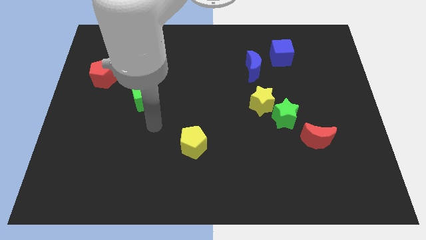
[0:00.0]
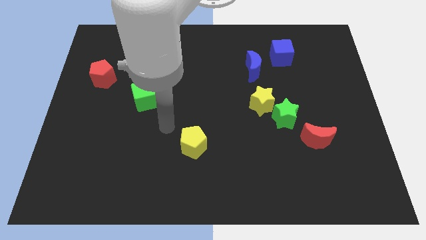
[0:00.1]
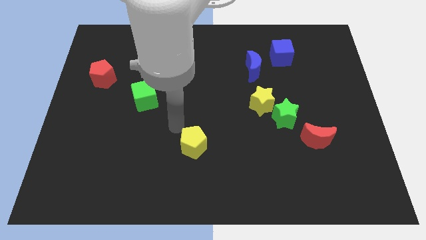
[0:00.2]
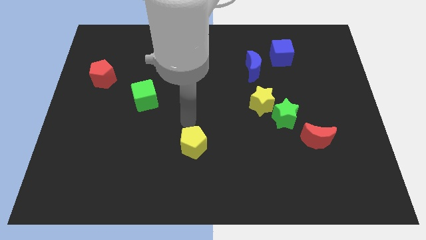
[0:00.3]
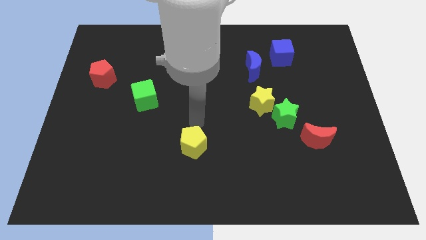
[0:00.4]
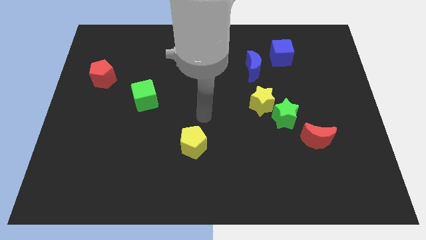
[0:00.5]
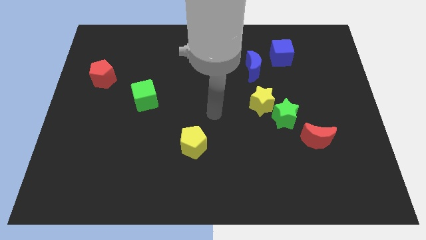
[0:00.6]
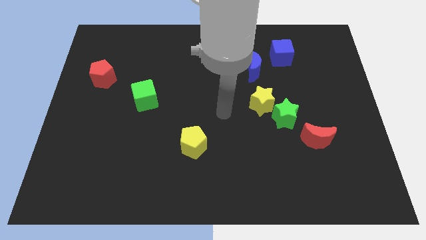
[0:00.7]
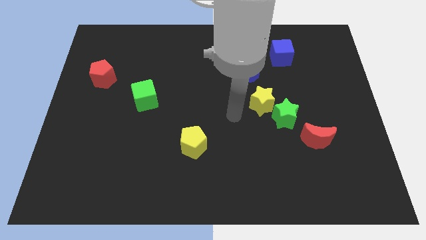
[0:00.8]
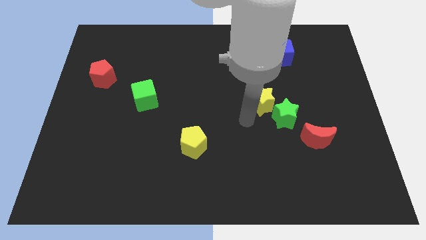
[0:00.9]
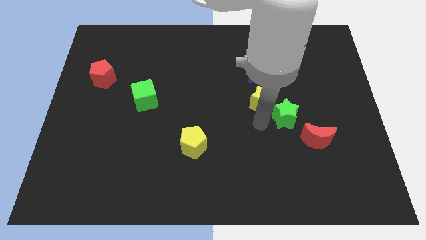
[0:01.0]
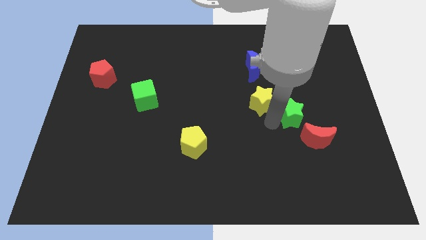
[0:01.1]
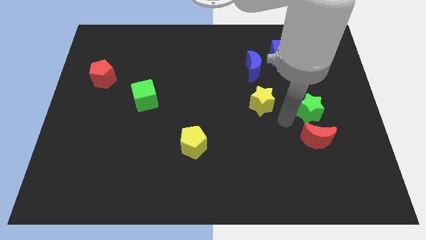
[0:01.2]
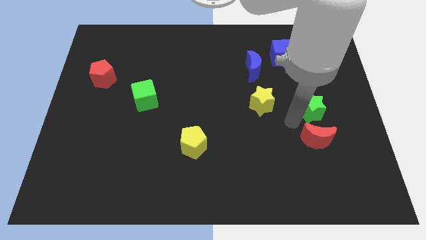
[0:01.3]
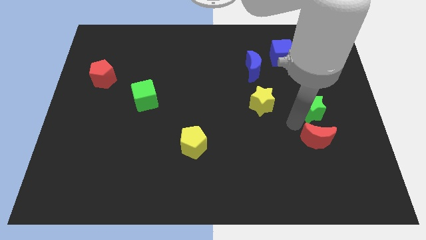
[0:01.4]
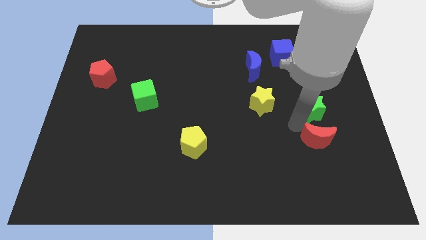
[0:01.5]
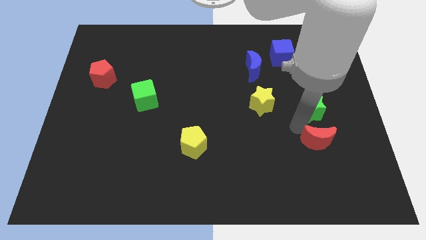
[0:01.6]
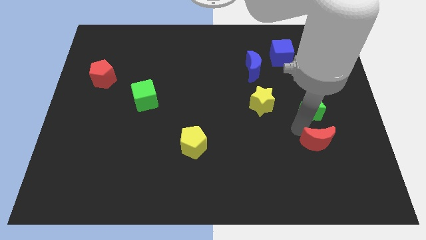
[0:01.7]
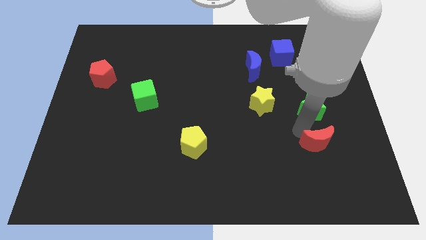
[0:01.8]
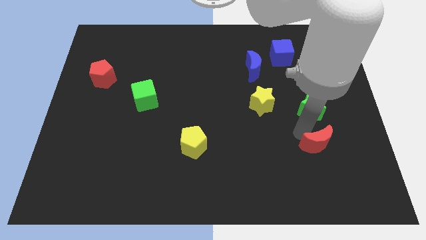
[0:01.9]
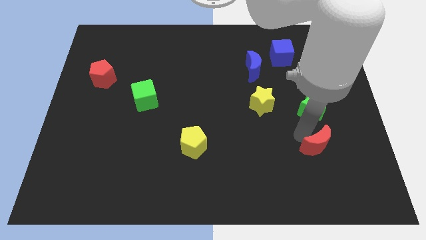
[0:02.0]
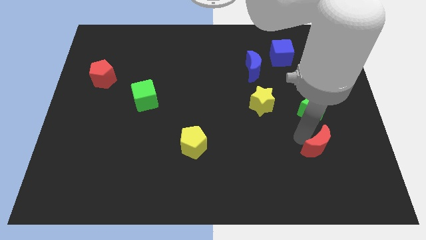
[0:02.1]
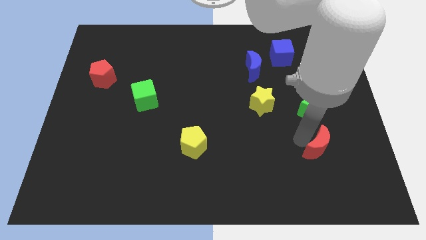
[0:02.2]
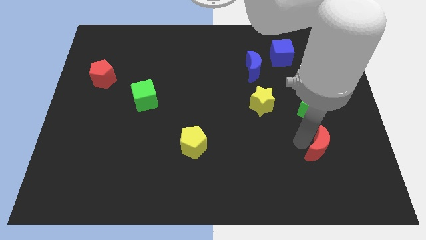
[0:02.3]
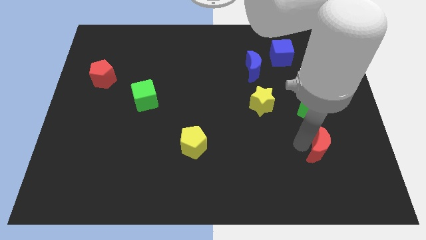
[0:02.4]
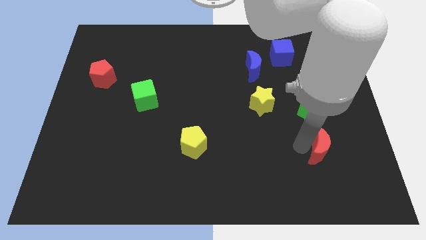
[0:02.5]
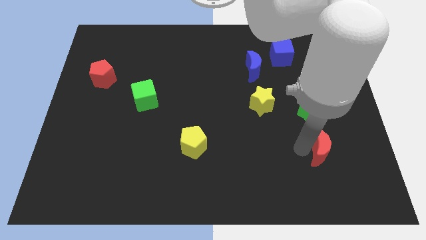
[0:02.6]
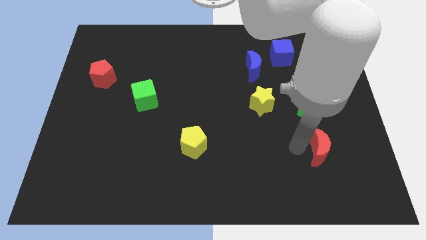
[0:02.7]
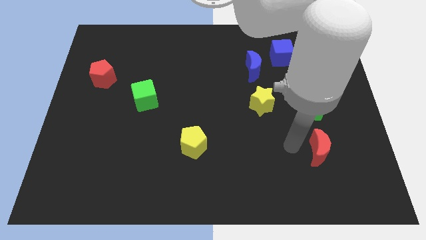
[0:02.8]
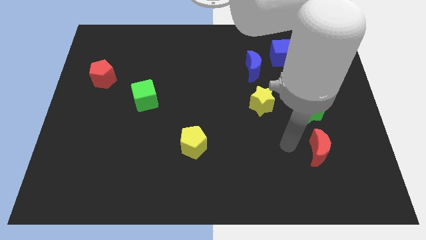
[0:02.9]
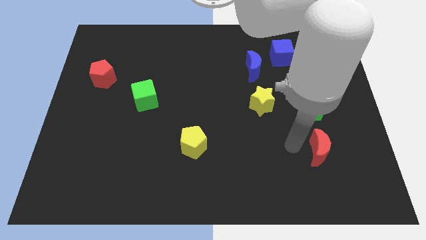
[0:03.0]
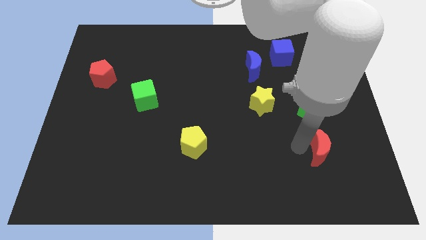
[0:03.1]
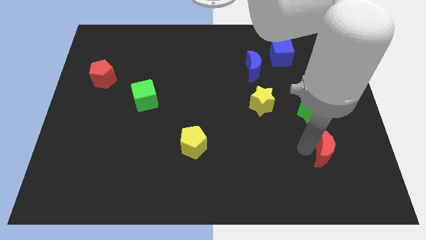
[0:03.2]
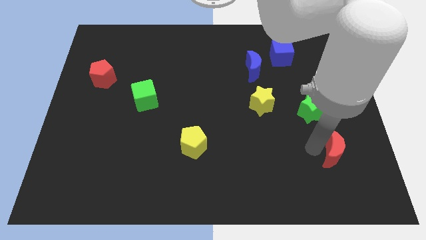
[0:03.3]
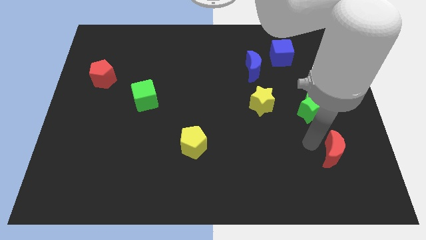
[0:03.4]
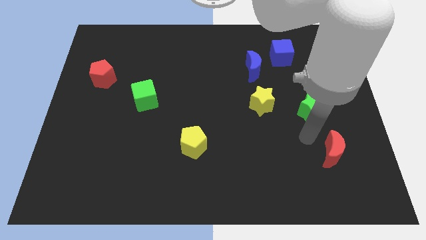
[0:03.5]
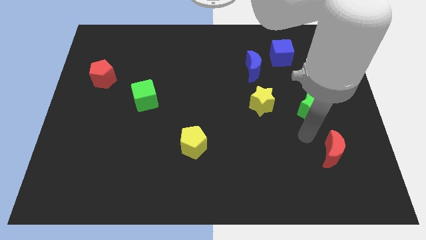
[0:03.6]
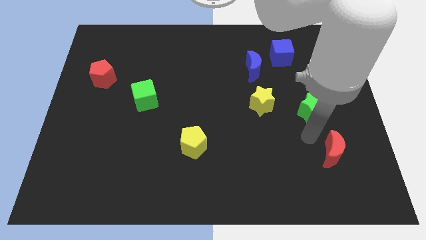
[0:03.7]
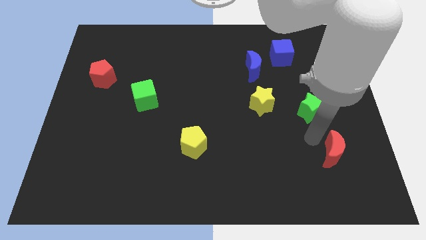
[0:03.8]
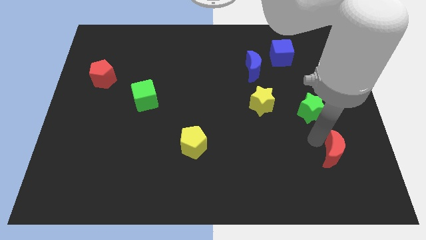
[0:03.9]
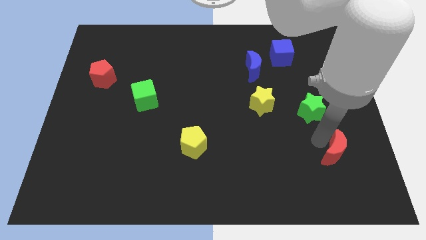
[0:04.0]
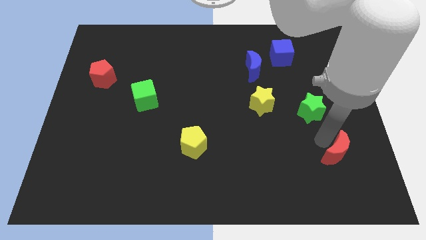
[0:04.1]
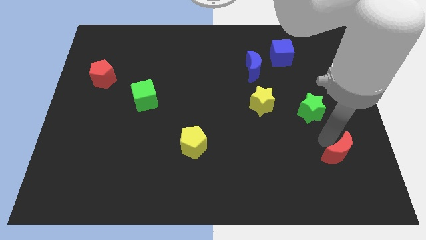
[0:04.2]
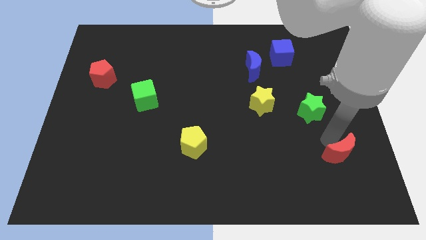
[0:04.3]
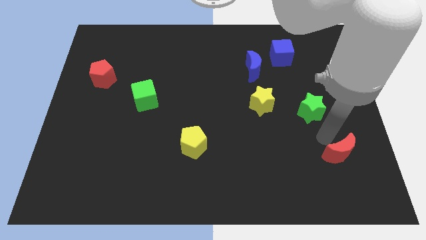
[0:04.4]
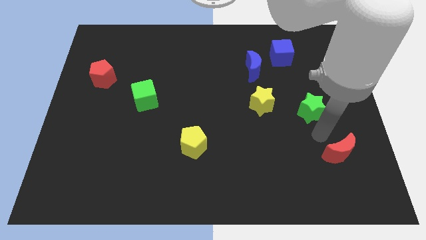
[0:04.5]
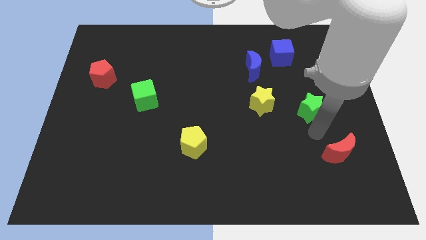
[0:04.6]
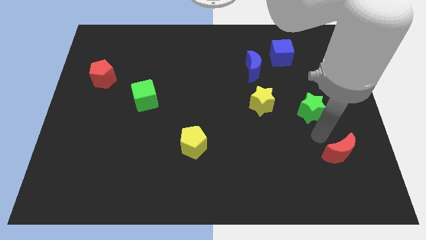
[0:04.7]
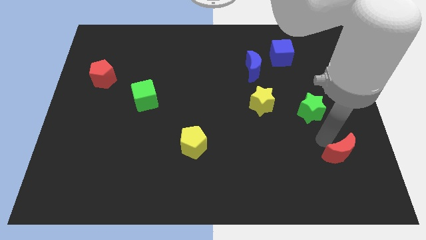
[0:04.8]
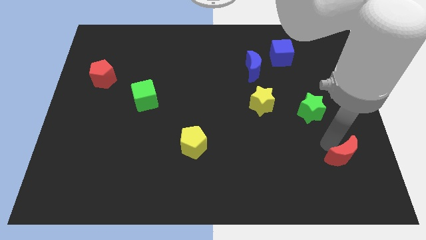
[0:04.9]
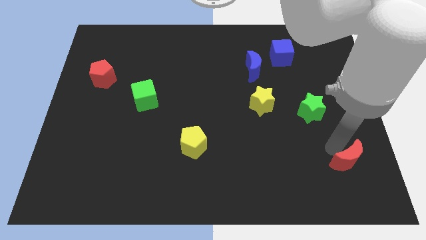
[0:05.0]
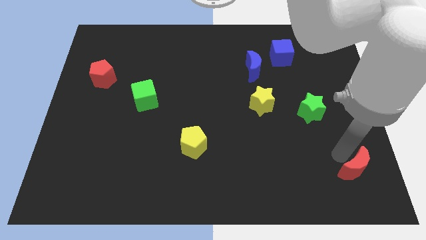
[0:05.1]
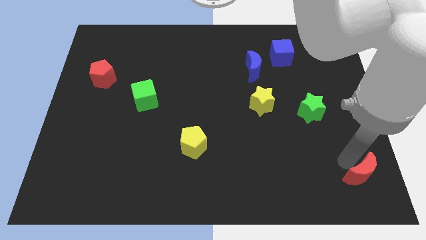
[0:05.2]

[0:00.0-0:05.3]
put the red moon to the bottom right of the board

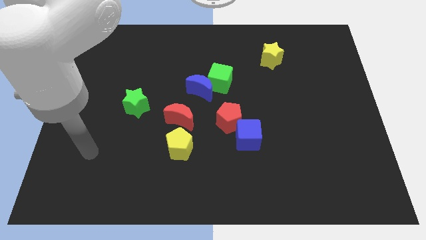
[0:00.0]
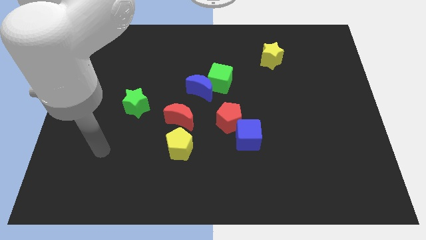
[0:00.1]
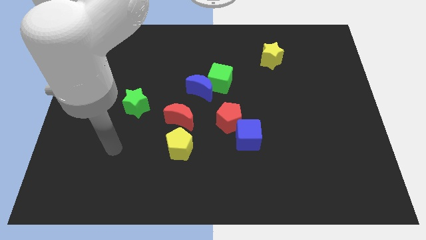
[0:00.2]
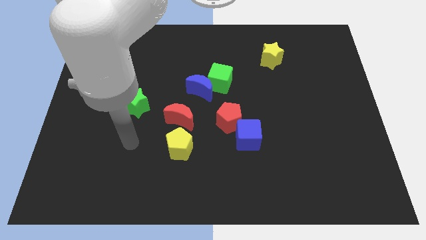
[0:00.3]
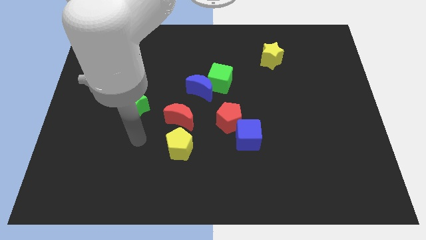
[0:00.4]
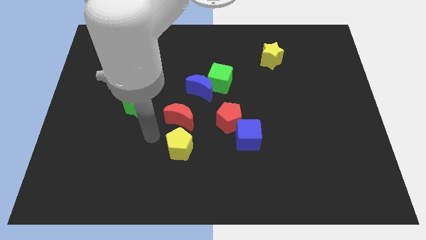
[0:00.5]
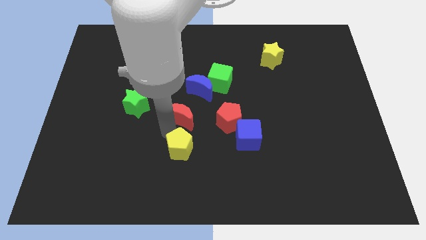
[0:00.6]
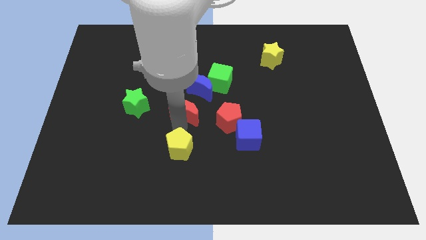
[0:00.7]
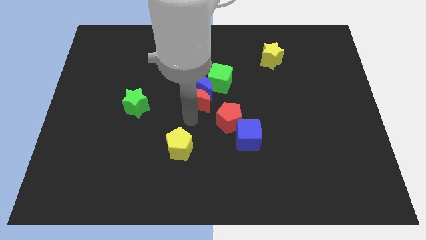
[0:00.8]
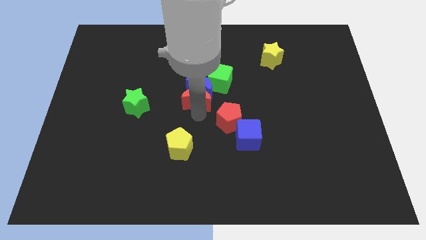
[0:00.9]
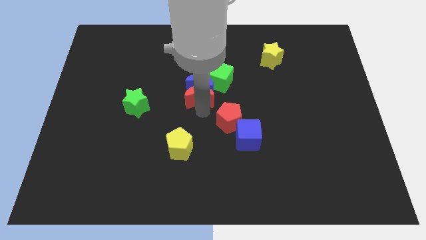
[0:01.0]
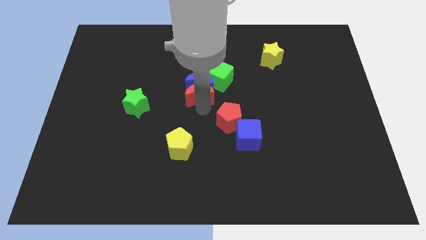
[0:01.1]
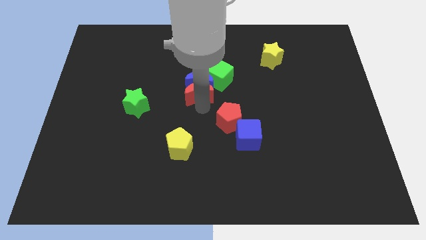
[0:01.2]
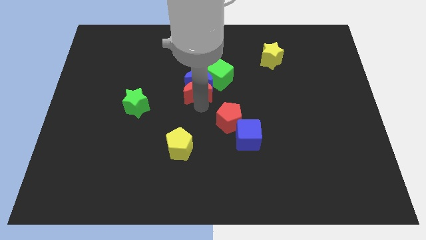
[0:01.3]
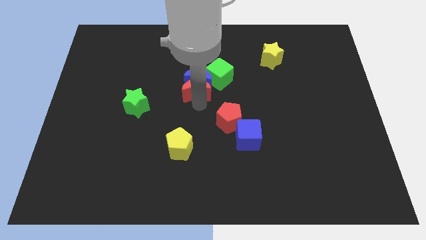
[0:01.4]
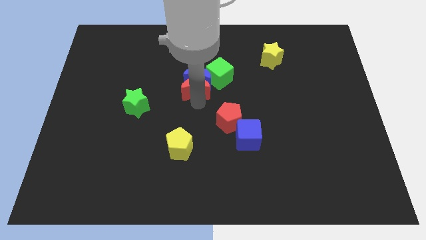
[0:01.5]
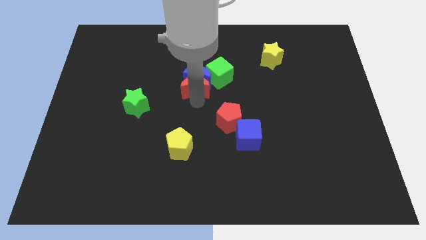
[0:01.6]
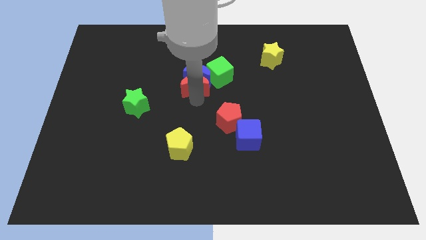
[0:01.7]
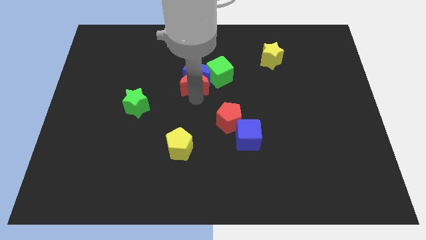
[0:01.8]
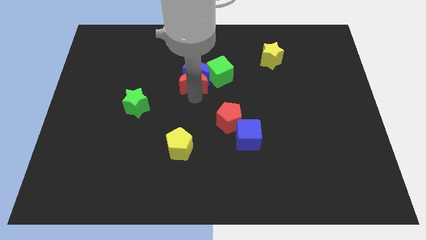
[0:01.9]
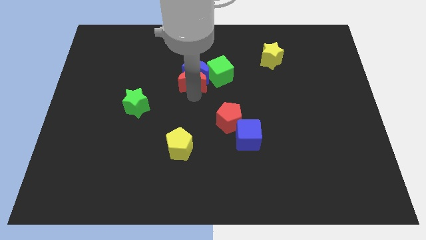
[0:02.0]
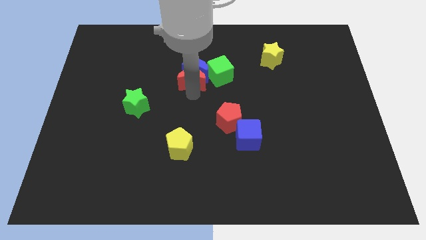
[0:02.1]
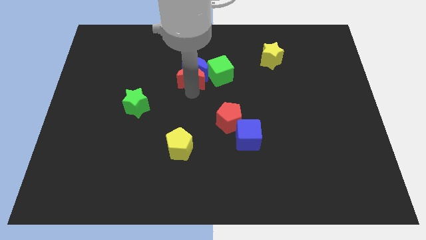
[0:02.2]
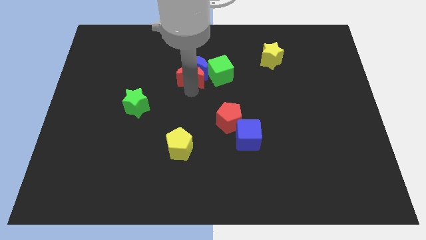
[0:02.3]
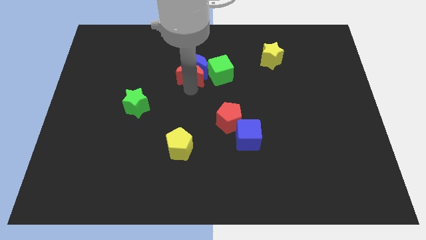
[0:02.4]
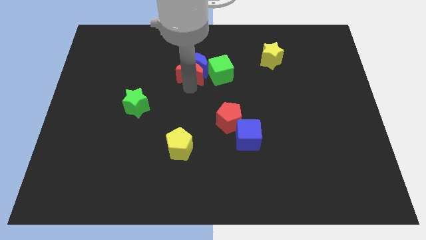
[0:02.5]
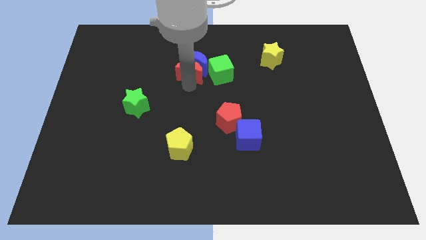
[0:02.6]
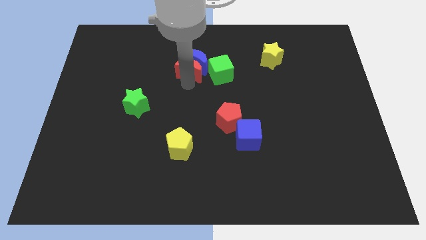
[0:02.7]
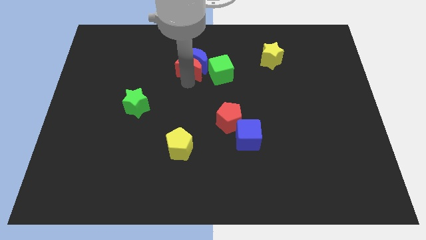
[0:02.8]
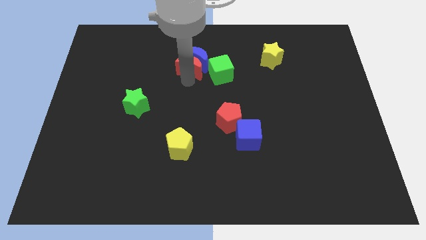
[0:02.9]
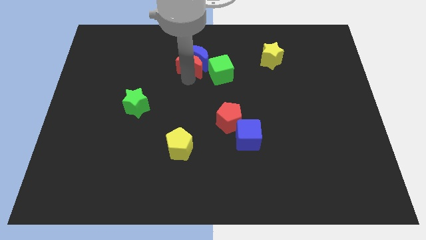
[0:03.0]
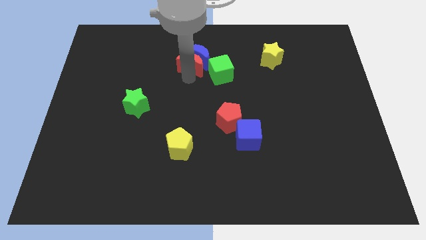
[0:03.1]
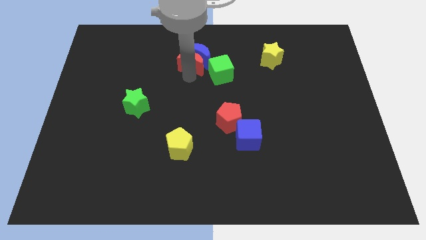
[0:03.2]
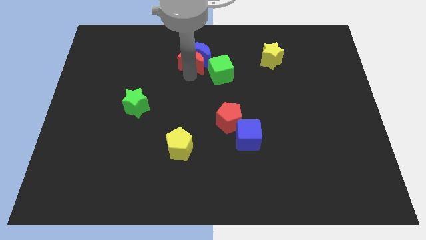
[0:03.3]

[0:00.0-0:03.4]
move the blue moon to the top side
